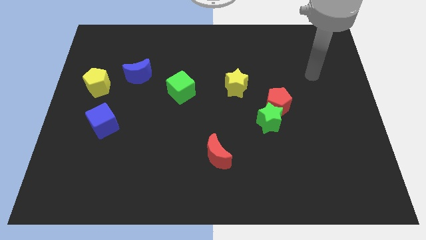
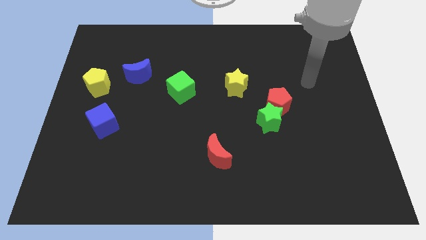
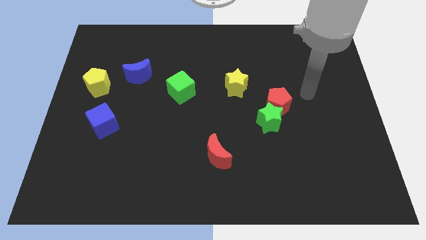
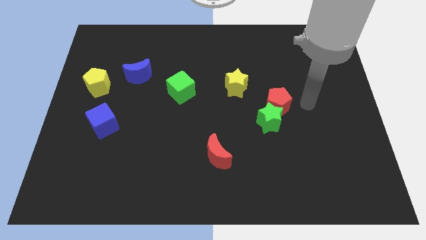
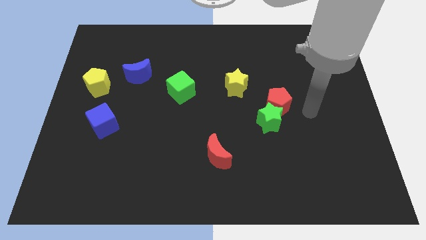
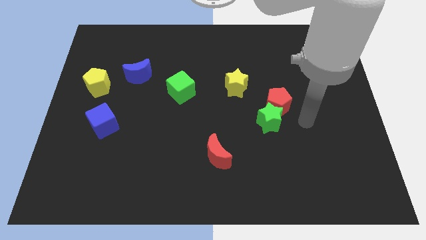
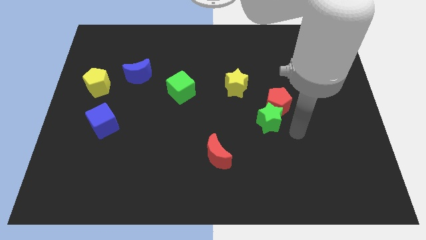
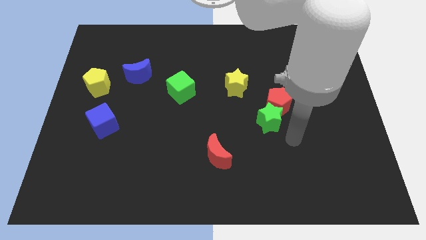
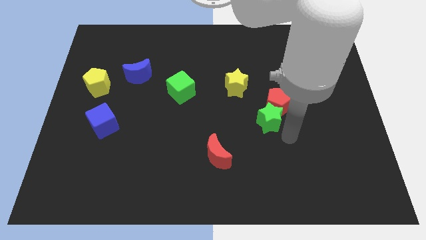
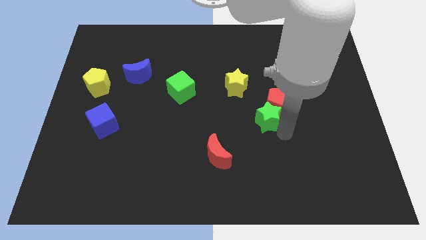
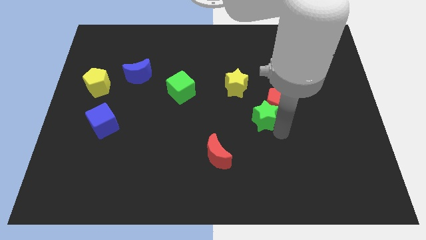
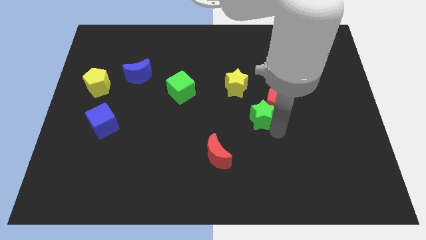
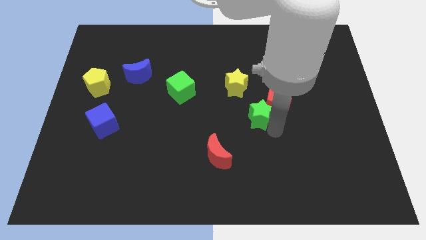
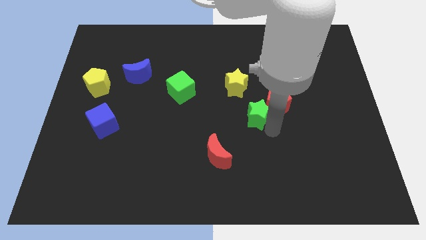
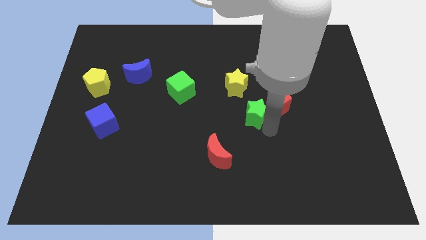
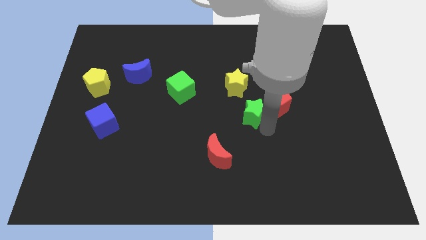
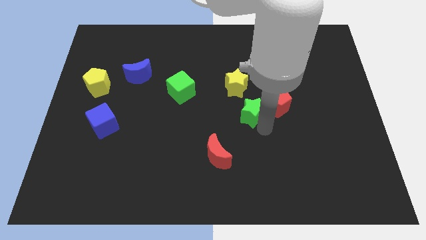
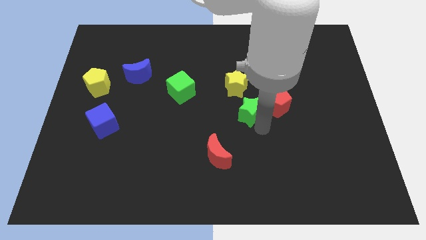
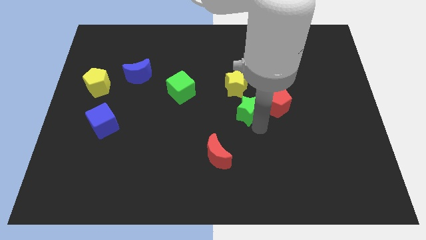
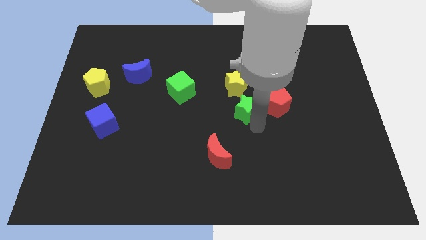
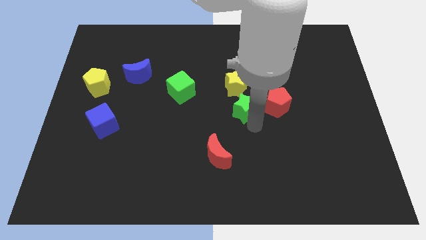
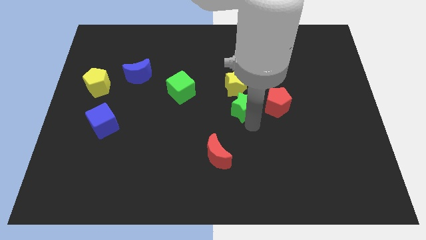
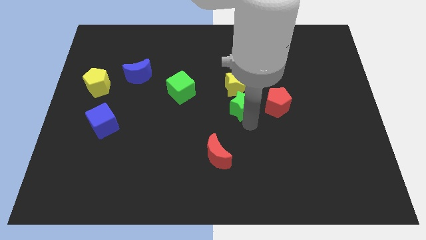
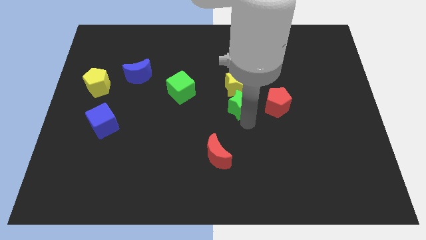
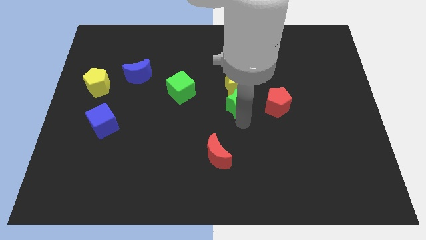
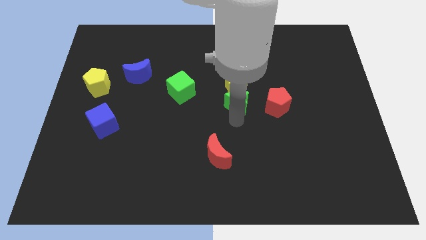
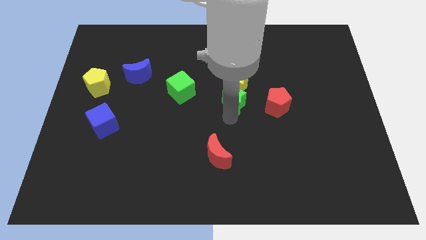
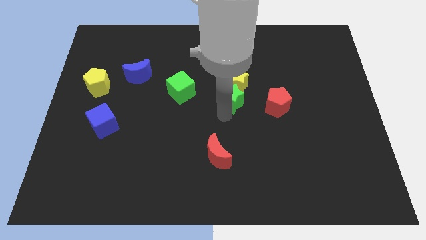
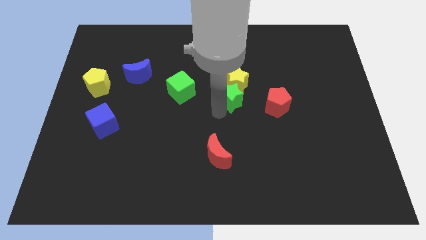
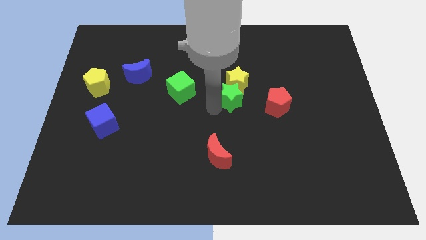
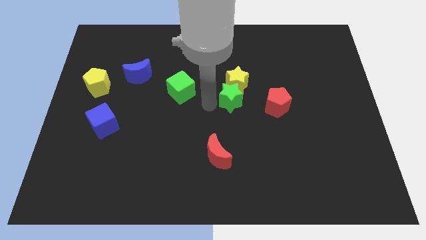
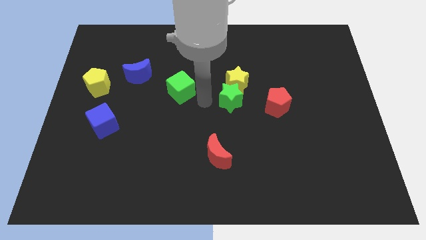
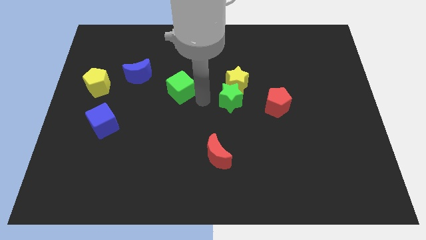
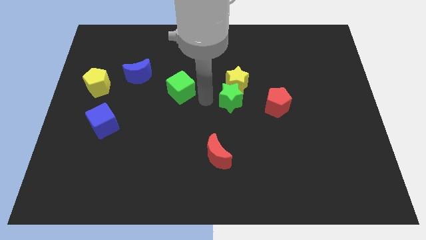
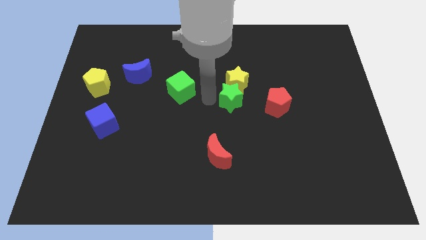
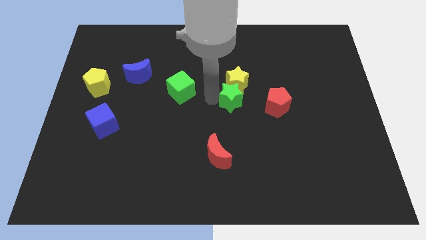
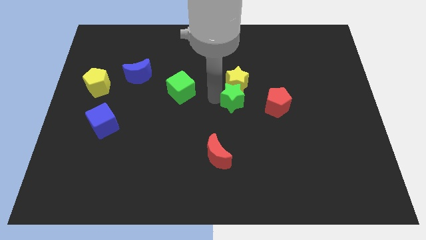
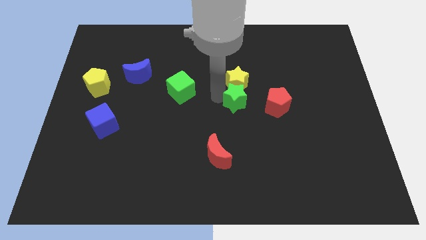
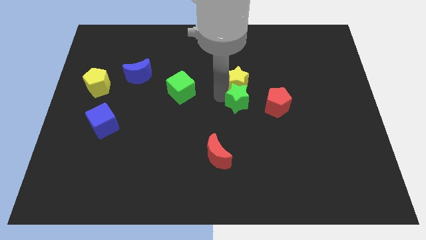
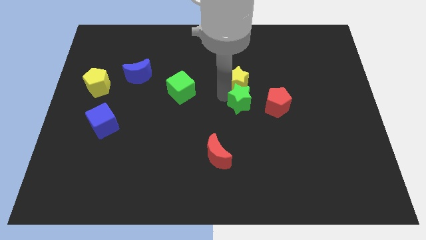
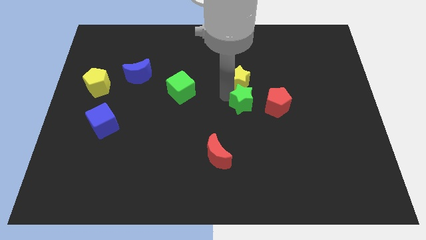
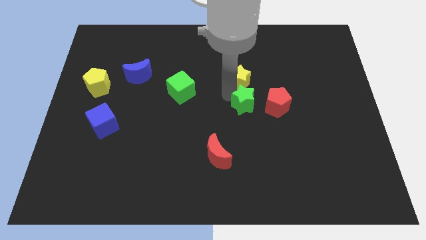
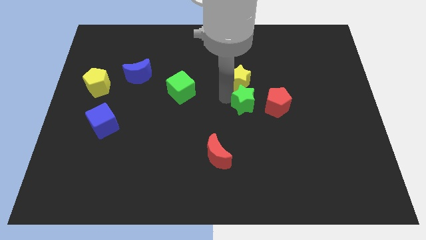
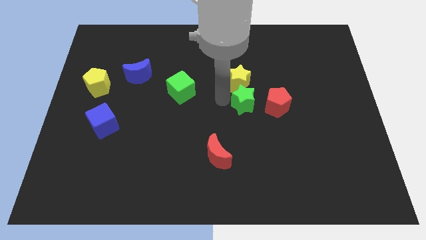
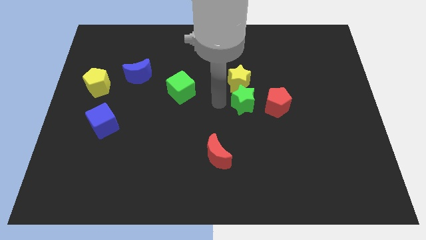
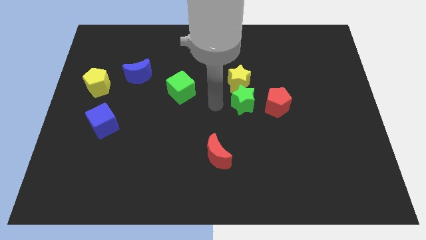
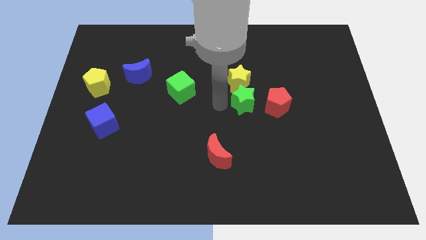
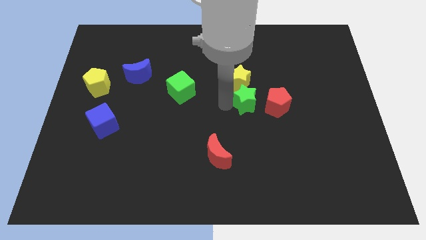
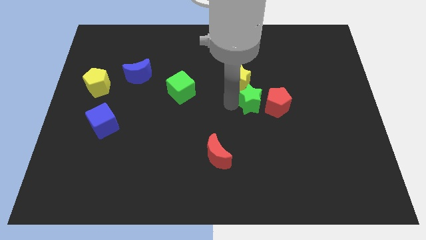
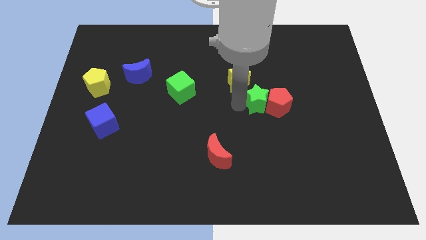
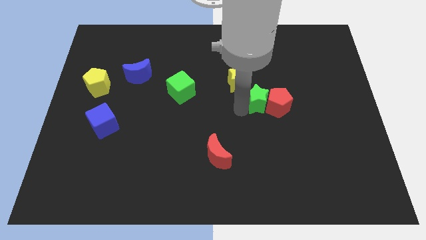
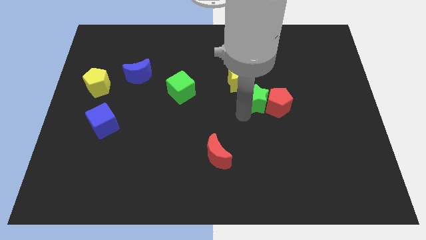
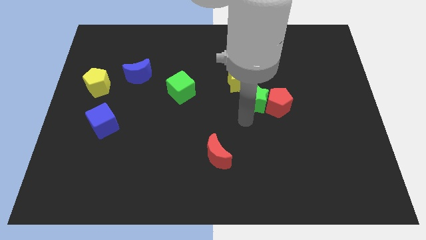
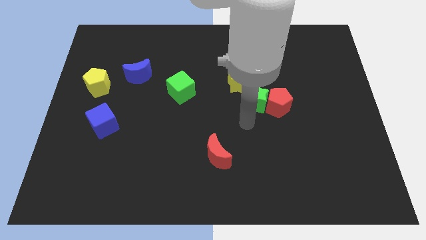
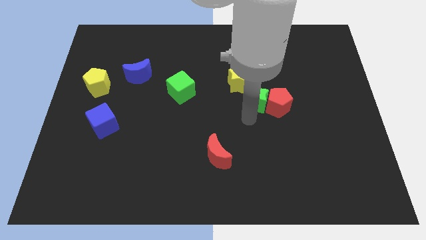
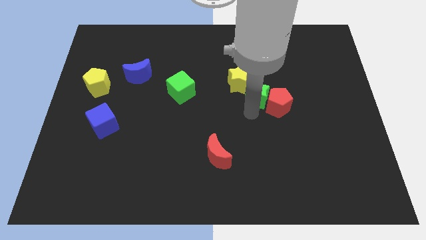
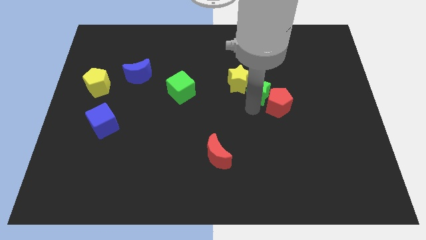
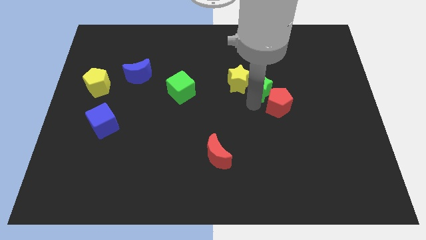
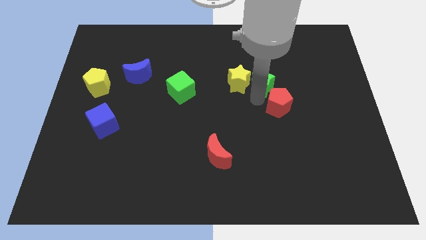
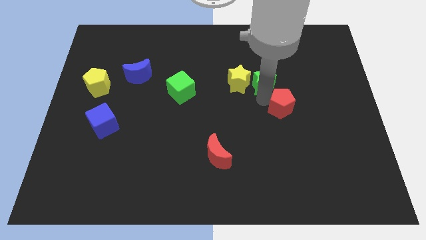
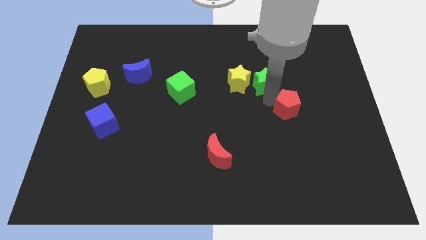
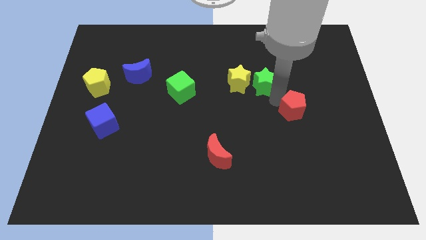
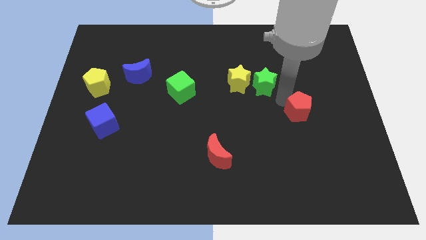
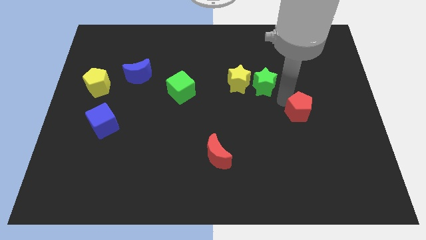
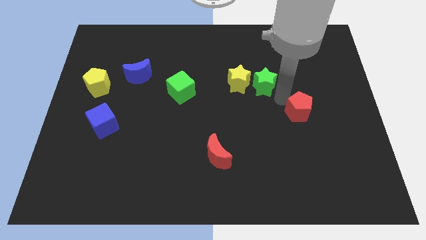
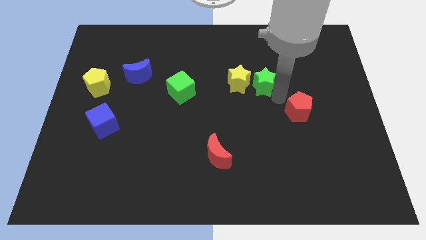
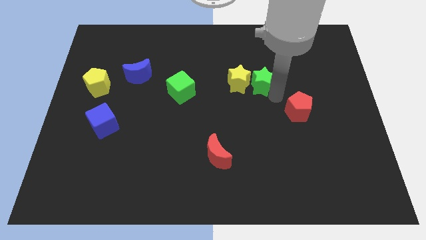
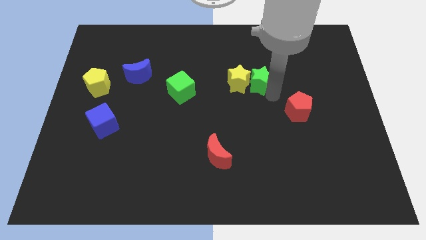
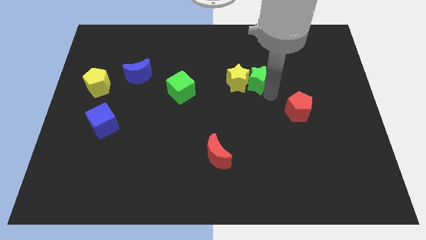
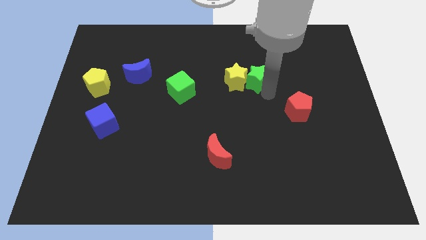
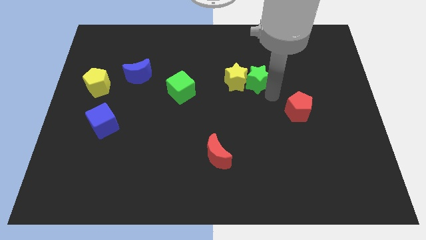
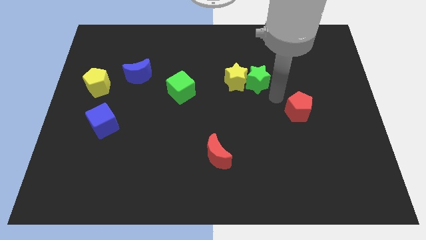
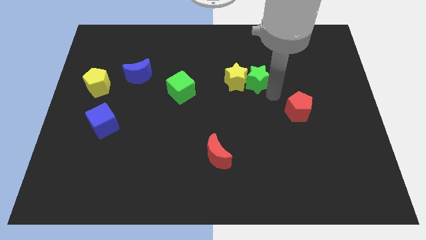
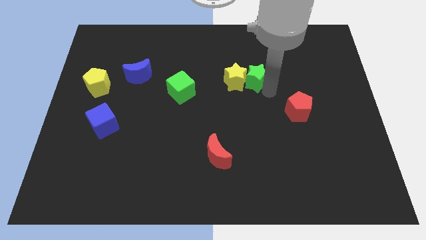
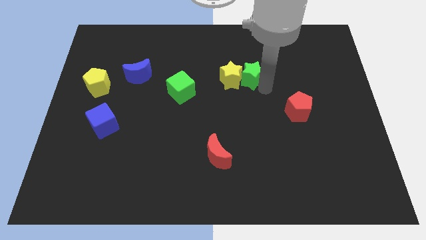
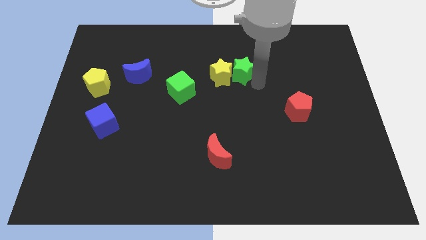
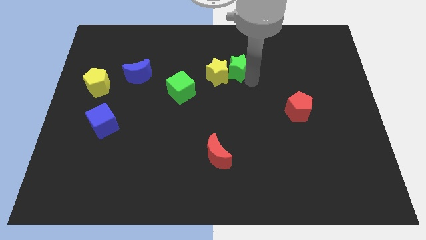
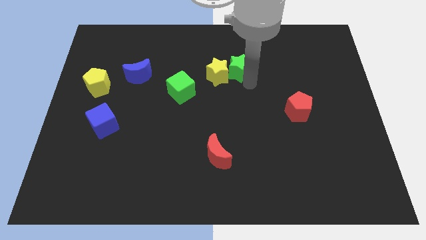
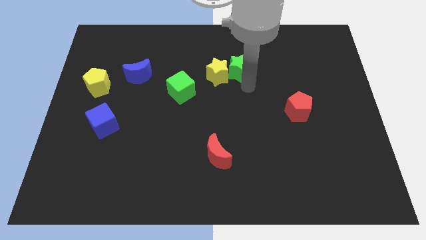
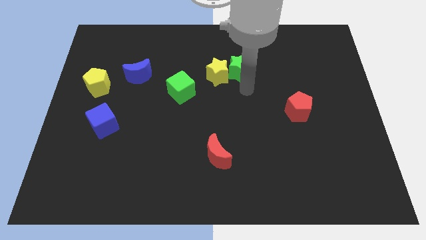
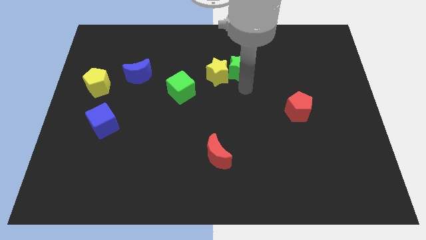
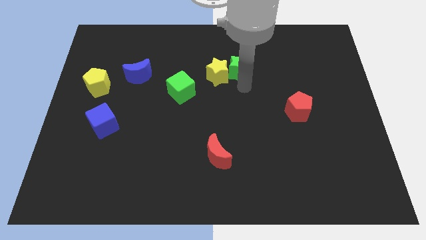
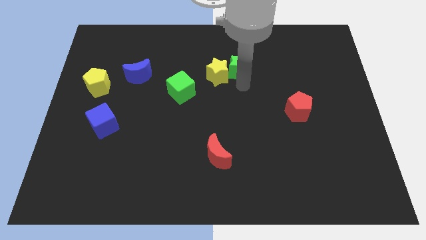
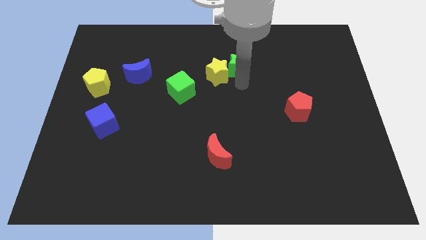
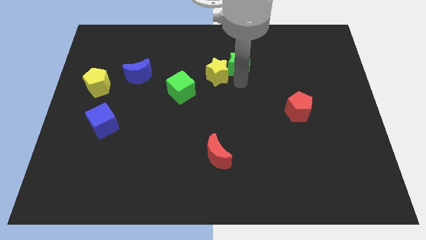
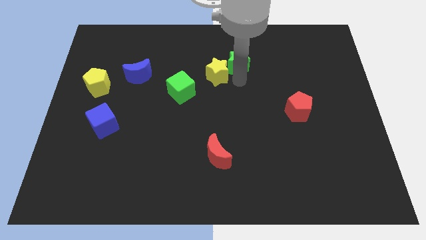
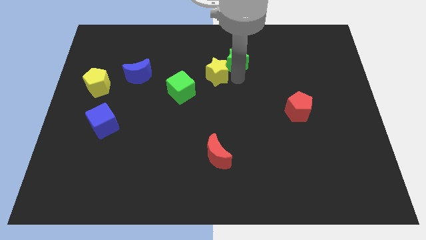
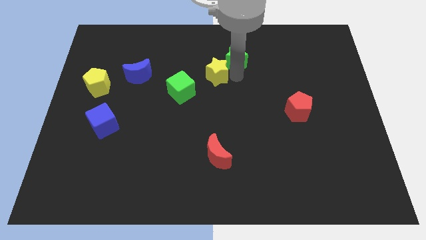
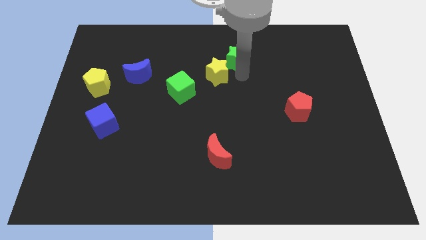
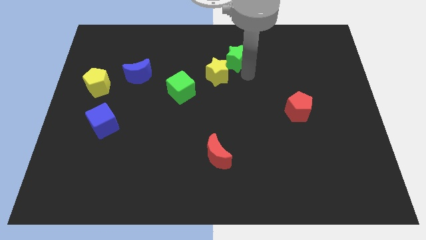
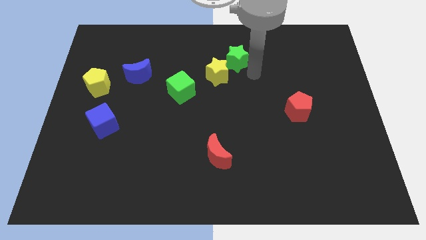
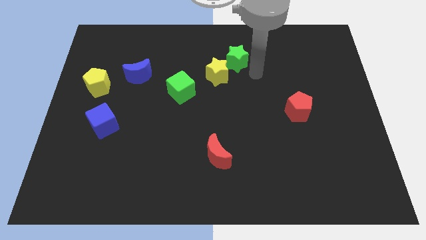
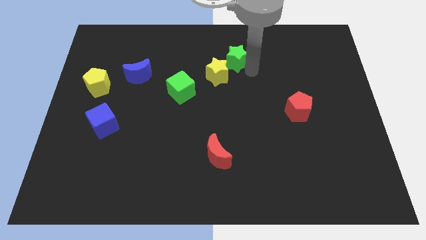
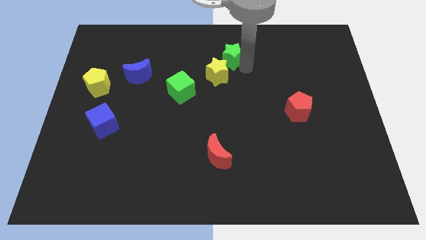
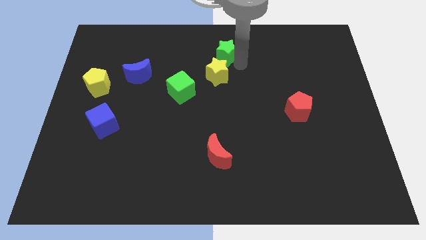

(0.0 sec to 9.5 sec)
put the green star to the top
